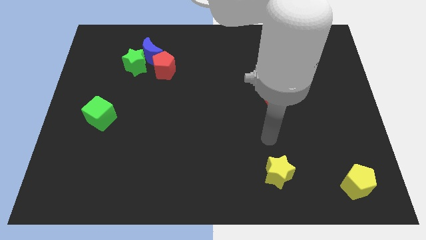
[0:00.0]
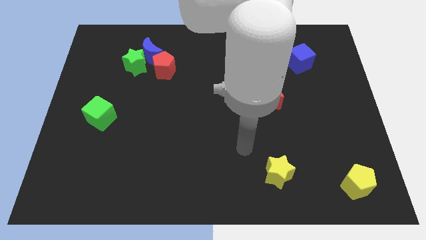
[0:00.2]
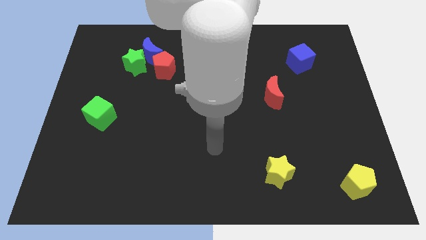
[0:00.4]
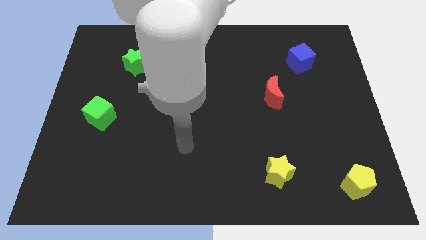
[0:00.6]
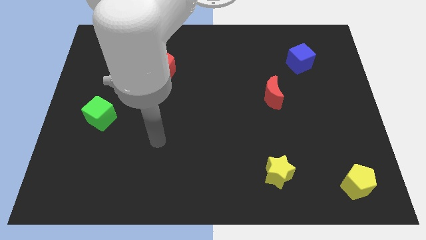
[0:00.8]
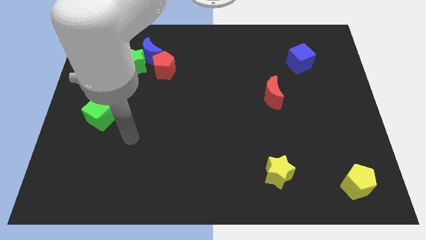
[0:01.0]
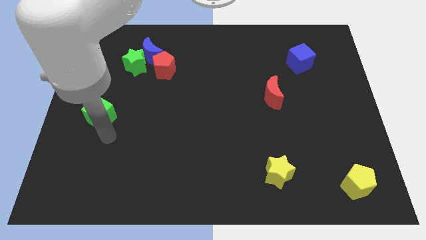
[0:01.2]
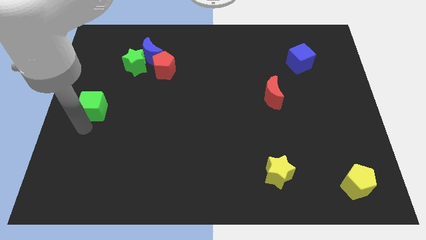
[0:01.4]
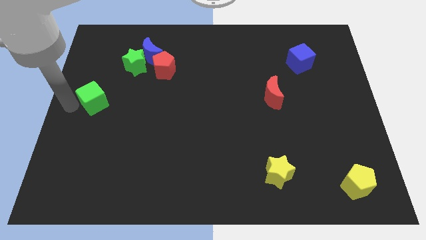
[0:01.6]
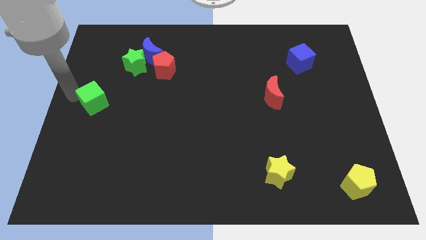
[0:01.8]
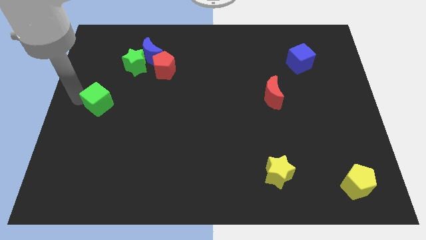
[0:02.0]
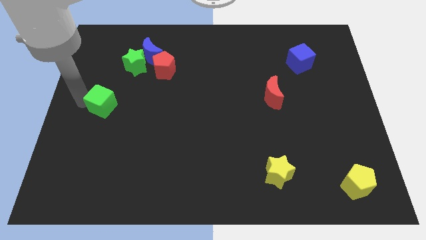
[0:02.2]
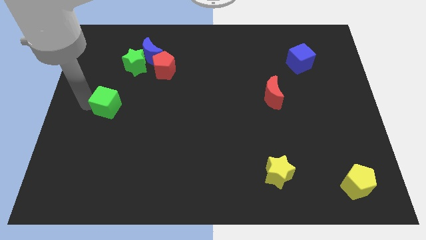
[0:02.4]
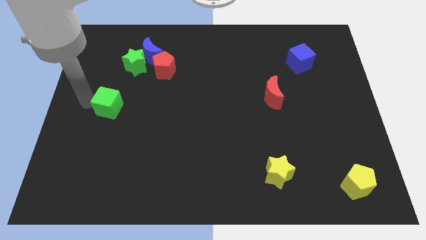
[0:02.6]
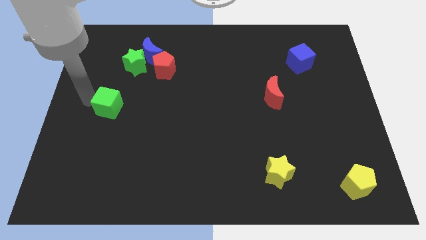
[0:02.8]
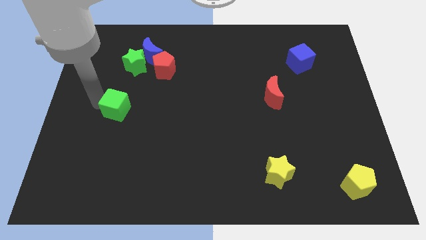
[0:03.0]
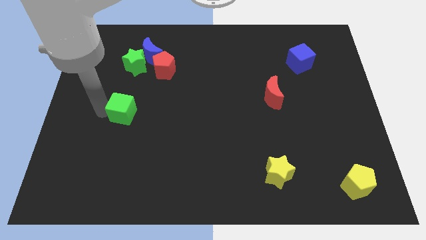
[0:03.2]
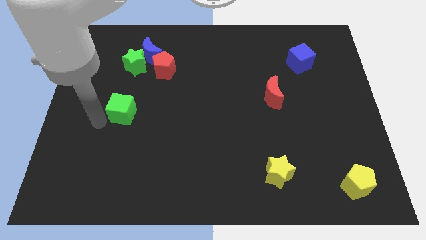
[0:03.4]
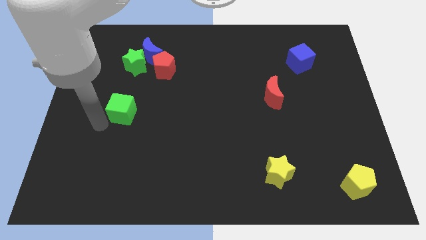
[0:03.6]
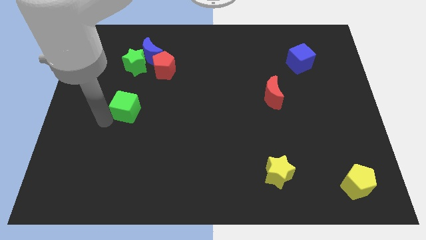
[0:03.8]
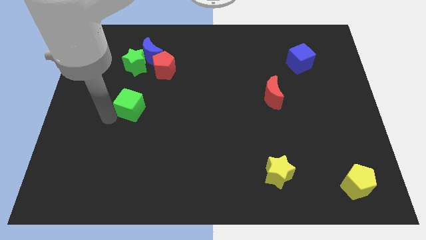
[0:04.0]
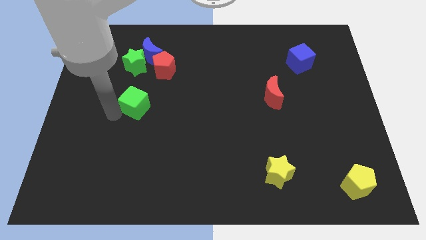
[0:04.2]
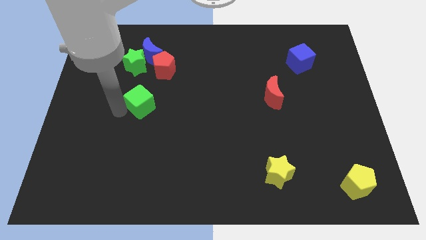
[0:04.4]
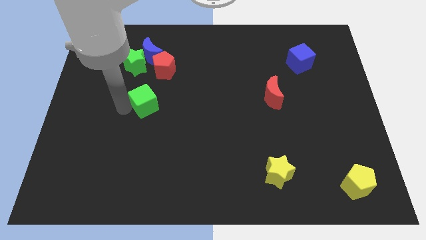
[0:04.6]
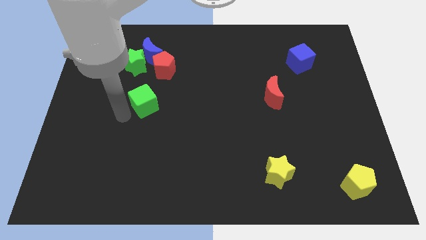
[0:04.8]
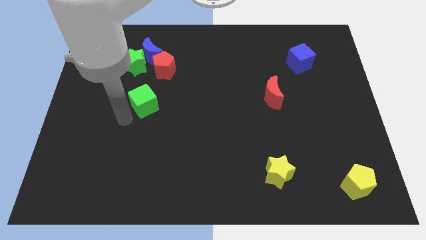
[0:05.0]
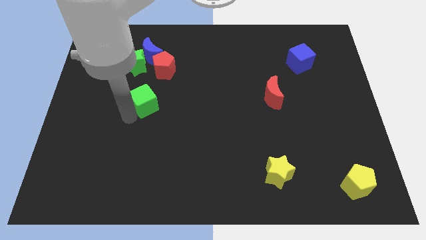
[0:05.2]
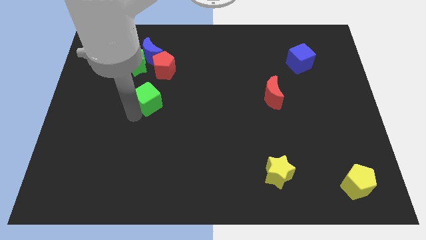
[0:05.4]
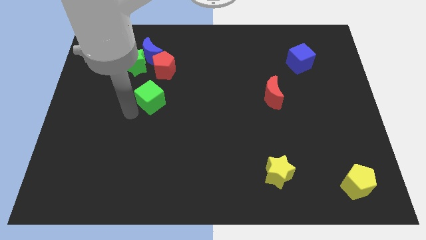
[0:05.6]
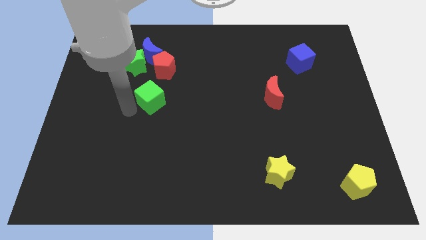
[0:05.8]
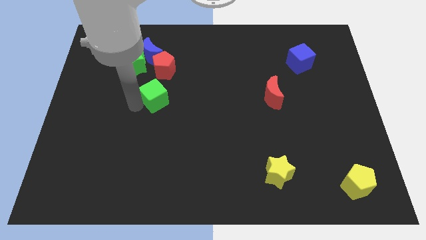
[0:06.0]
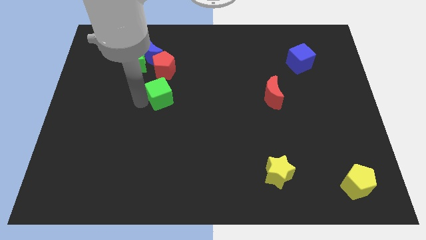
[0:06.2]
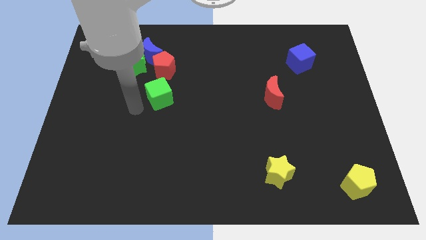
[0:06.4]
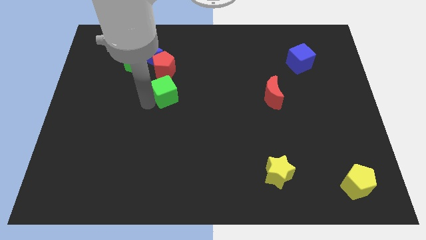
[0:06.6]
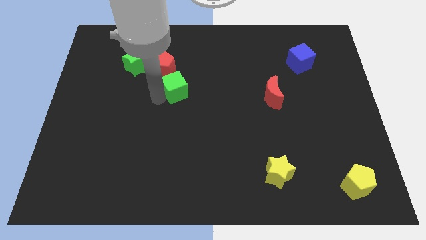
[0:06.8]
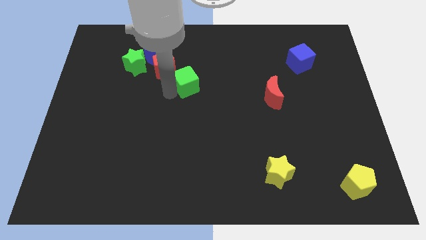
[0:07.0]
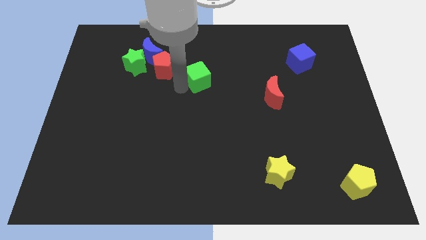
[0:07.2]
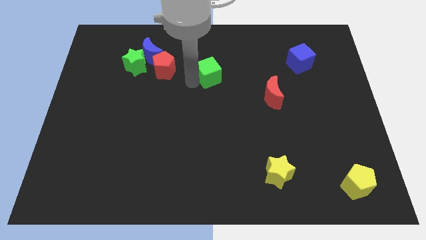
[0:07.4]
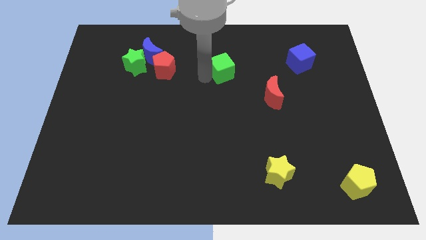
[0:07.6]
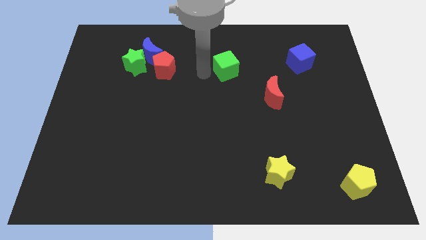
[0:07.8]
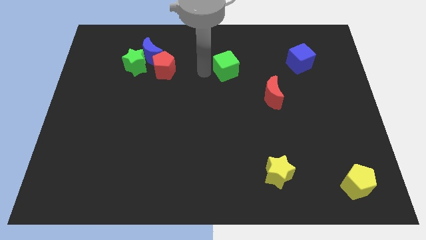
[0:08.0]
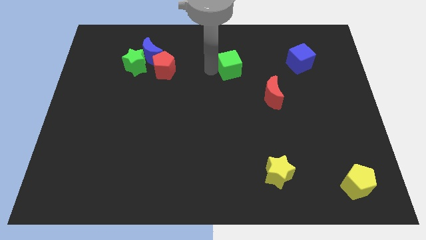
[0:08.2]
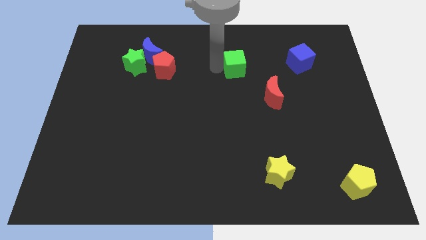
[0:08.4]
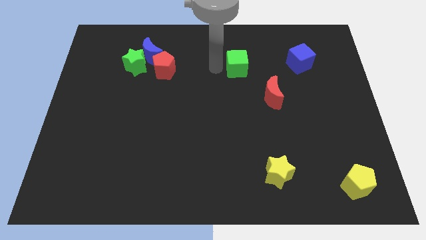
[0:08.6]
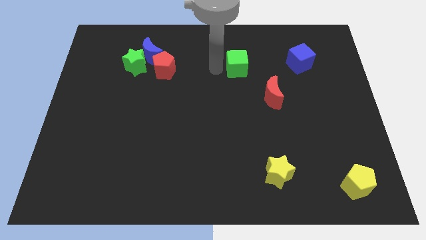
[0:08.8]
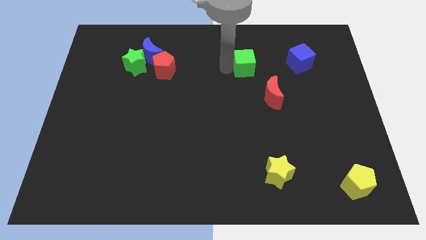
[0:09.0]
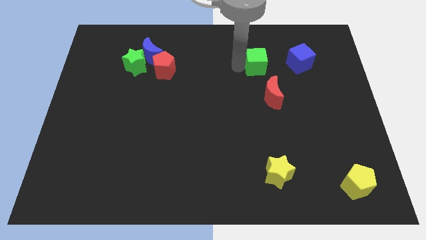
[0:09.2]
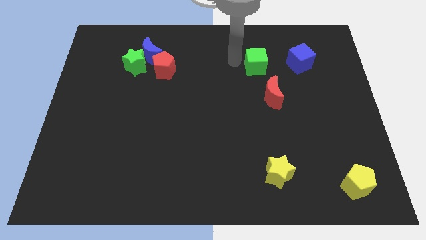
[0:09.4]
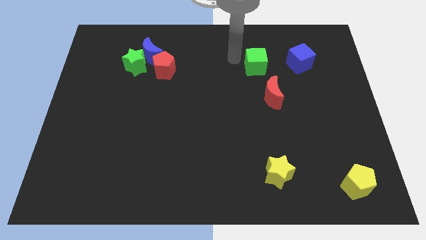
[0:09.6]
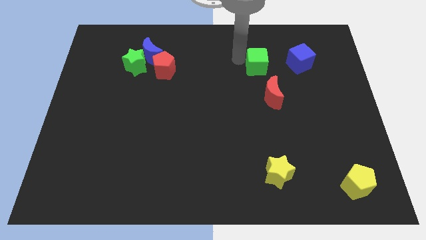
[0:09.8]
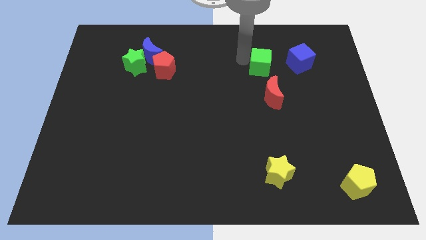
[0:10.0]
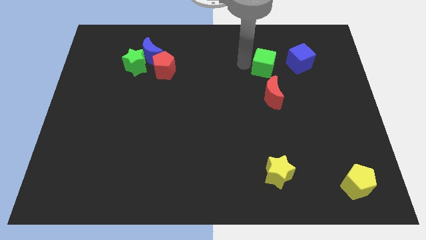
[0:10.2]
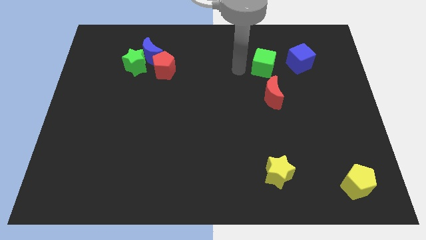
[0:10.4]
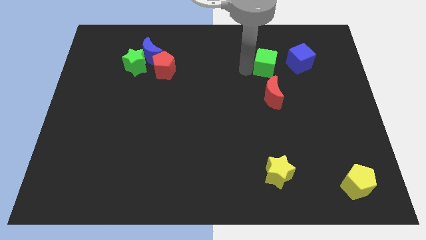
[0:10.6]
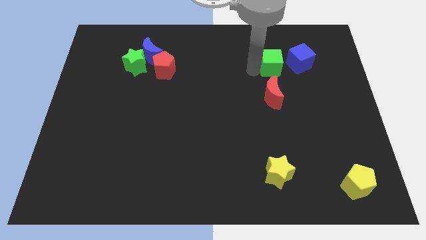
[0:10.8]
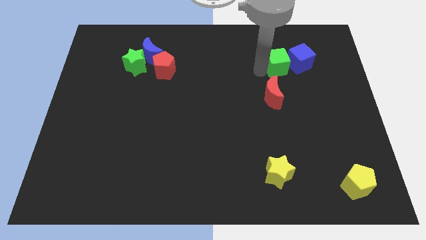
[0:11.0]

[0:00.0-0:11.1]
put the green cube close to the blue cube

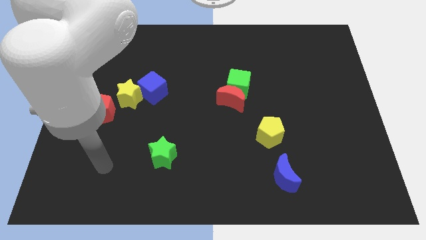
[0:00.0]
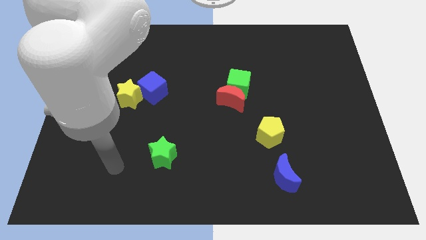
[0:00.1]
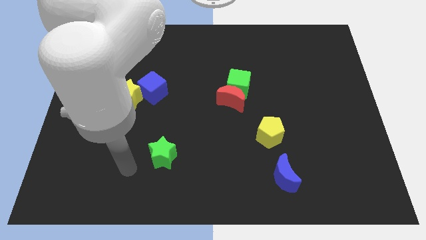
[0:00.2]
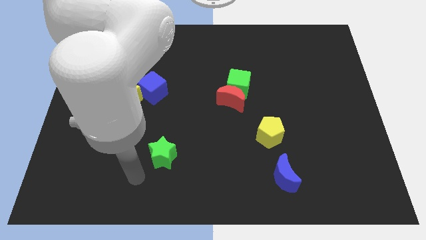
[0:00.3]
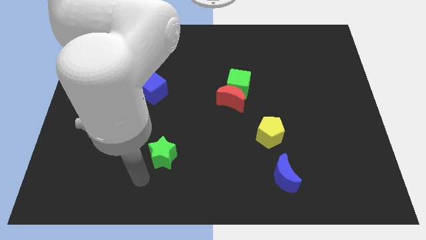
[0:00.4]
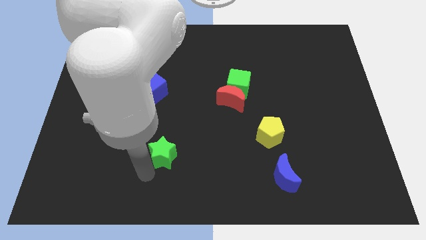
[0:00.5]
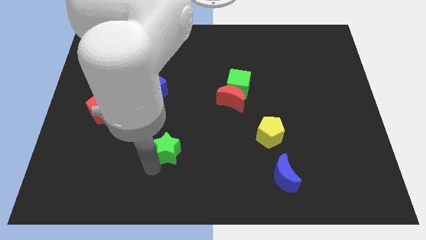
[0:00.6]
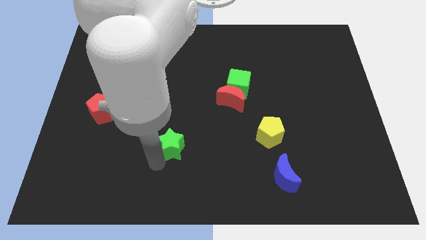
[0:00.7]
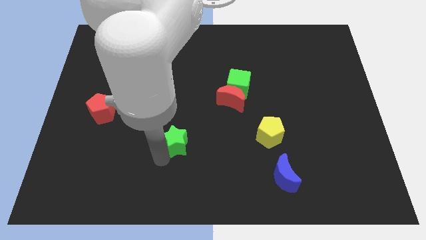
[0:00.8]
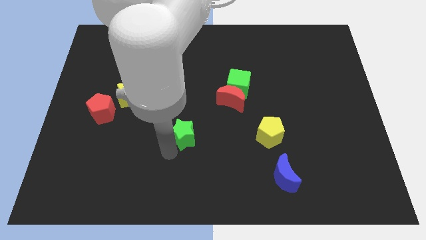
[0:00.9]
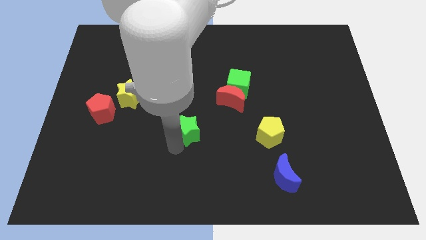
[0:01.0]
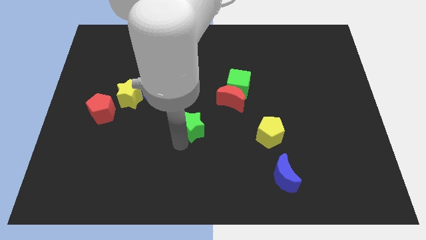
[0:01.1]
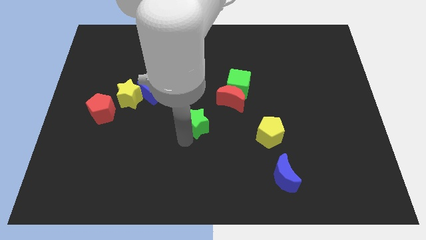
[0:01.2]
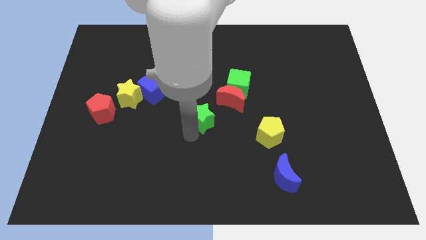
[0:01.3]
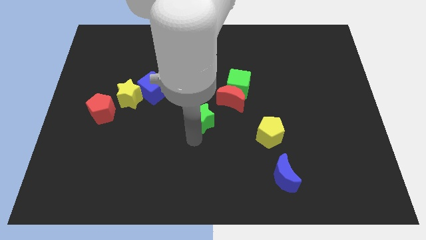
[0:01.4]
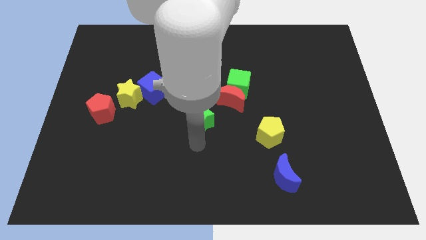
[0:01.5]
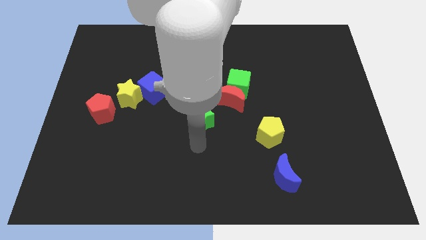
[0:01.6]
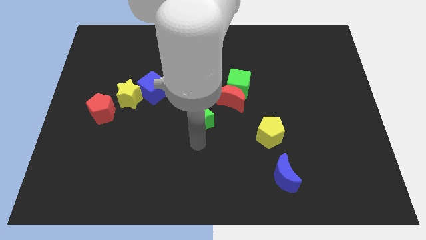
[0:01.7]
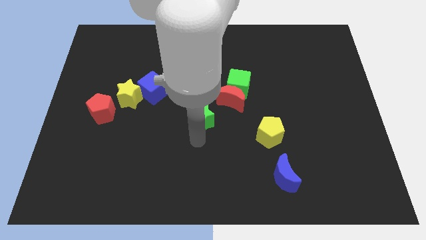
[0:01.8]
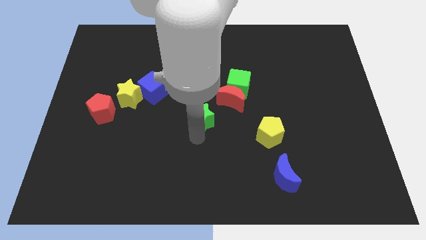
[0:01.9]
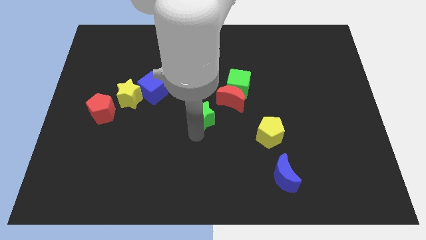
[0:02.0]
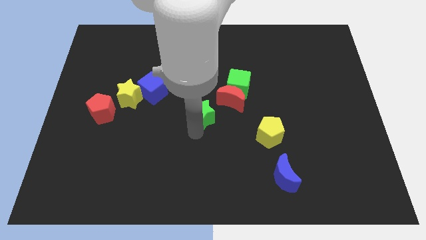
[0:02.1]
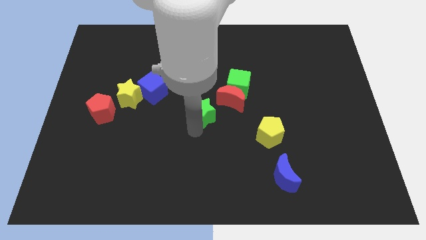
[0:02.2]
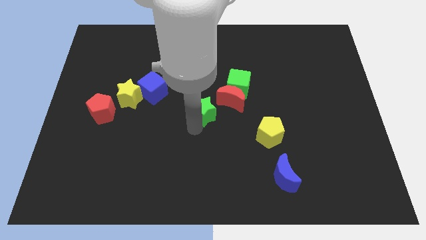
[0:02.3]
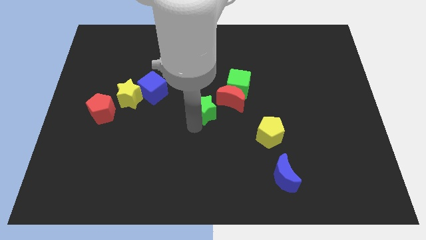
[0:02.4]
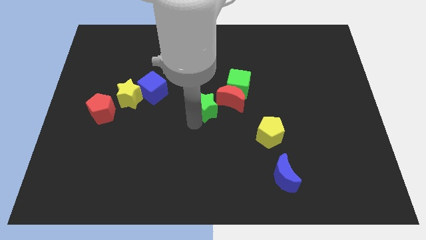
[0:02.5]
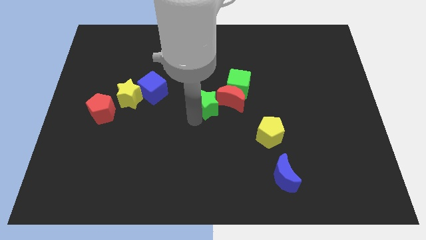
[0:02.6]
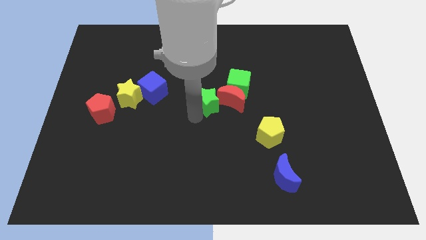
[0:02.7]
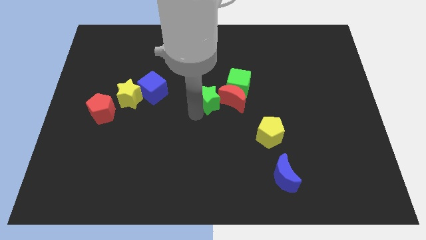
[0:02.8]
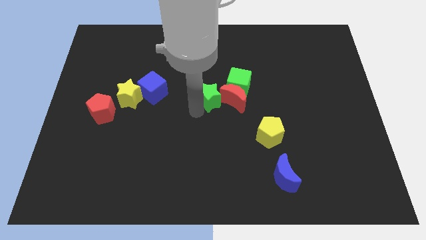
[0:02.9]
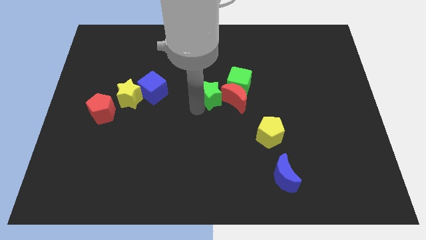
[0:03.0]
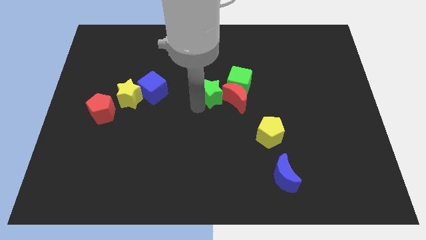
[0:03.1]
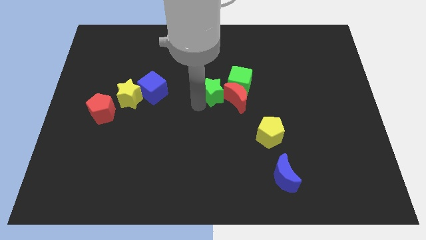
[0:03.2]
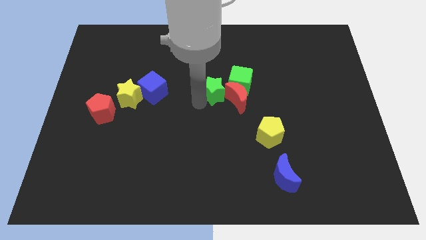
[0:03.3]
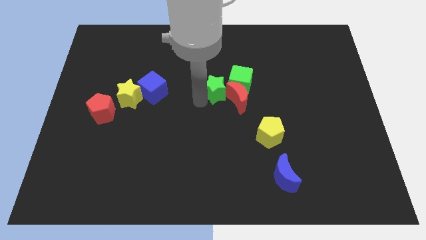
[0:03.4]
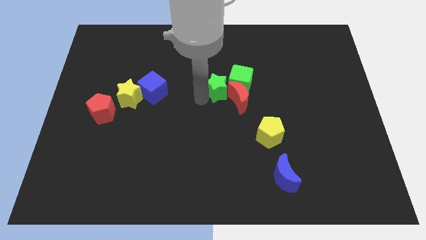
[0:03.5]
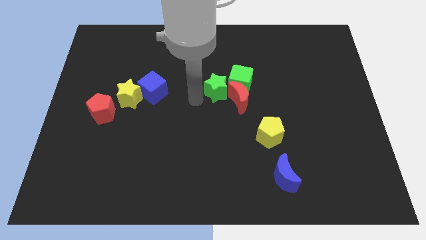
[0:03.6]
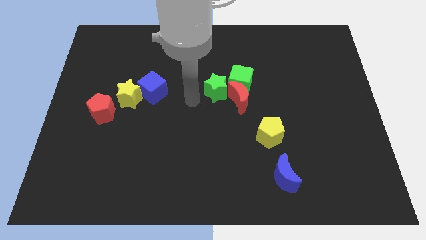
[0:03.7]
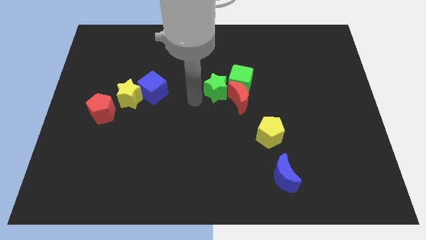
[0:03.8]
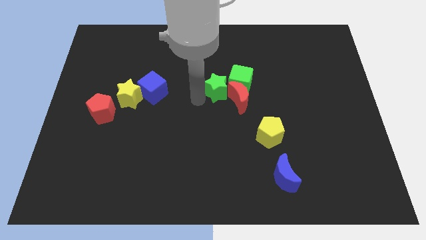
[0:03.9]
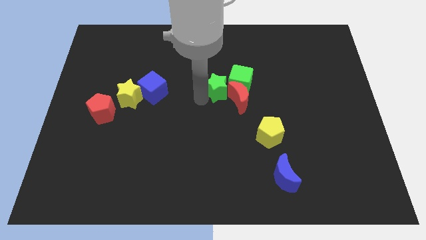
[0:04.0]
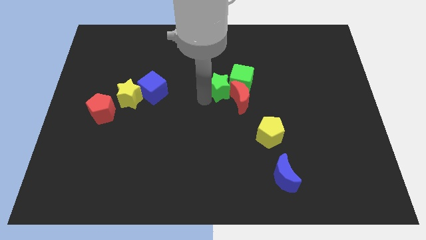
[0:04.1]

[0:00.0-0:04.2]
move the green star next to the green cube
